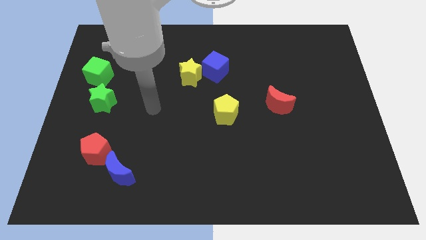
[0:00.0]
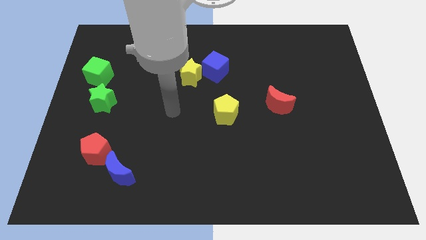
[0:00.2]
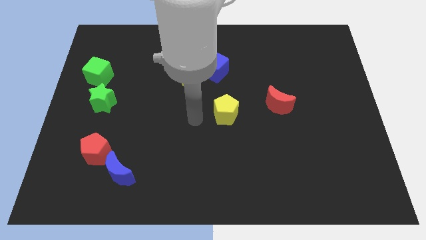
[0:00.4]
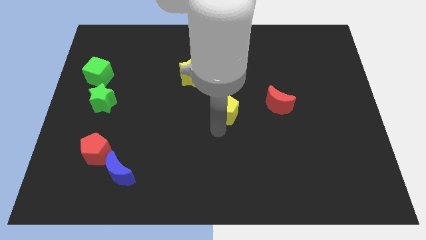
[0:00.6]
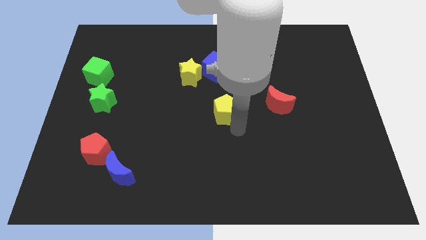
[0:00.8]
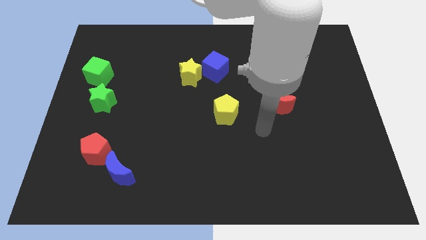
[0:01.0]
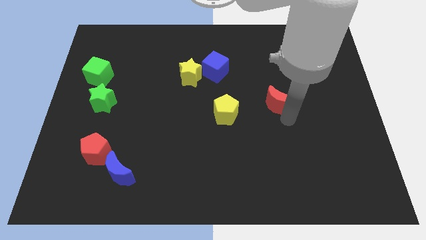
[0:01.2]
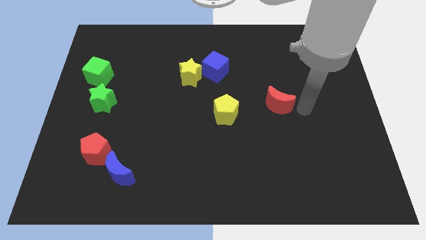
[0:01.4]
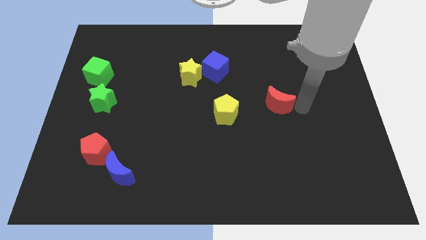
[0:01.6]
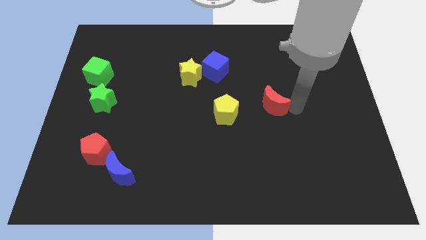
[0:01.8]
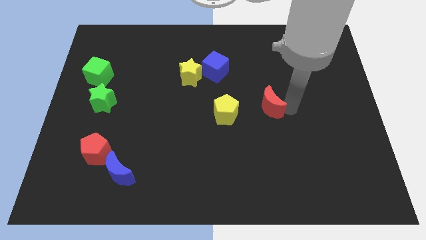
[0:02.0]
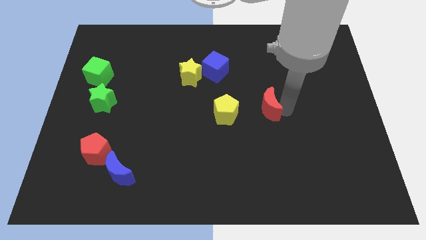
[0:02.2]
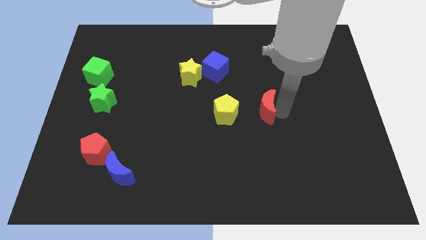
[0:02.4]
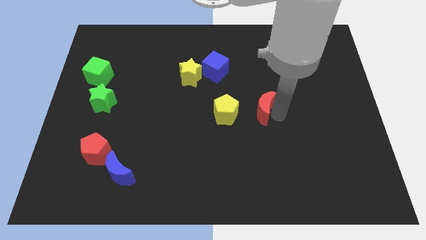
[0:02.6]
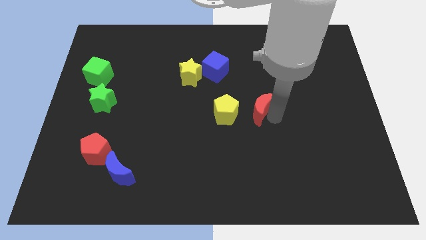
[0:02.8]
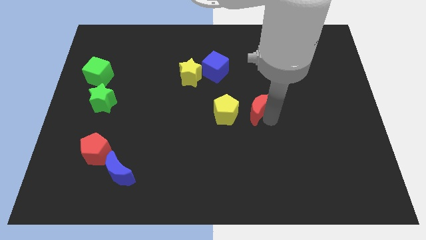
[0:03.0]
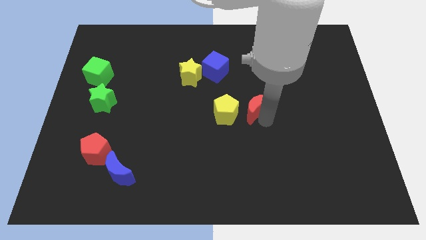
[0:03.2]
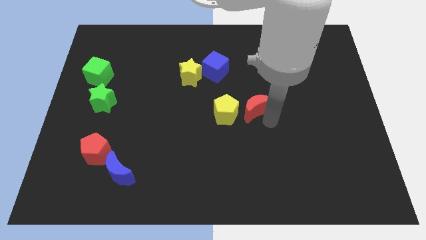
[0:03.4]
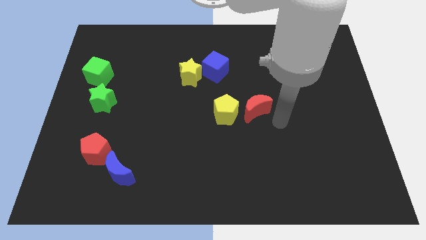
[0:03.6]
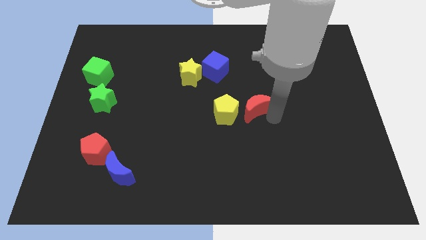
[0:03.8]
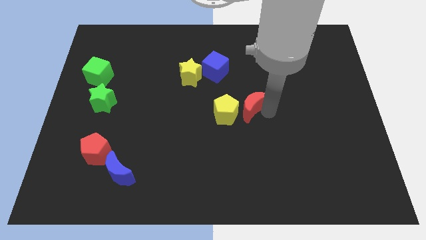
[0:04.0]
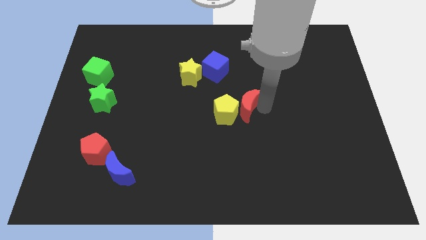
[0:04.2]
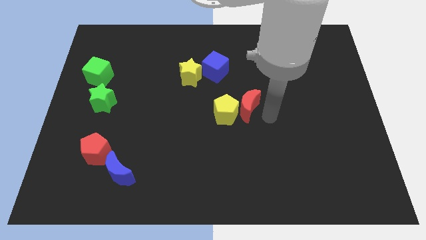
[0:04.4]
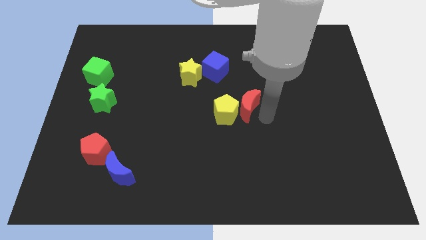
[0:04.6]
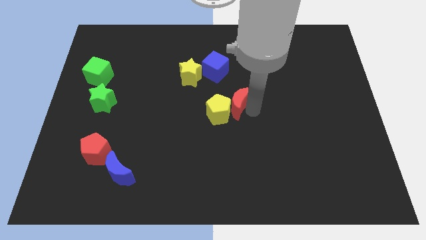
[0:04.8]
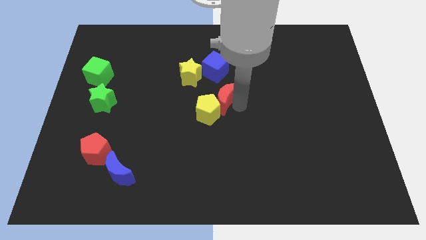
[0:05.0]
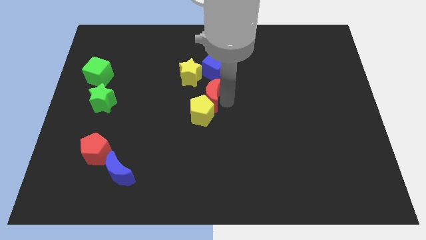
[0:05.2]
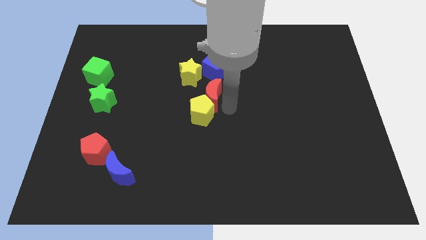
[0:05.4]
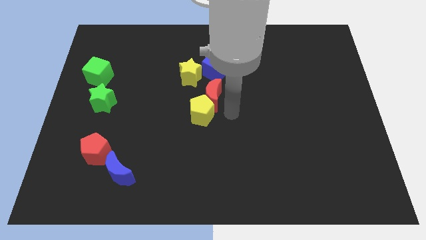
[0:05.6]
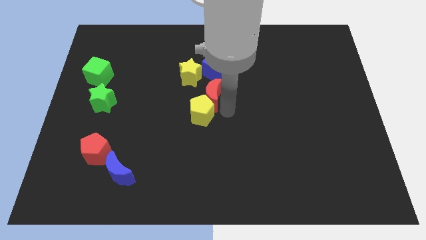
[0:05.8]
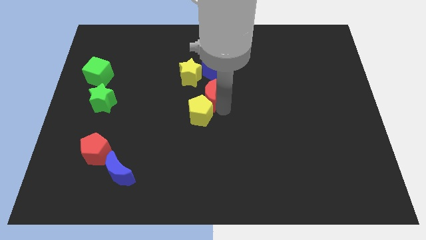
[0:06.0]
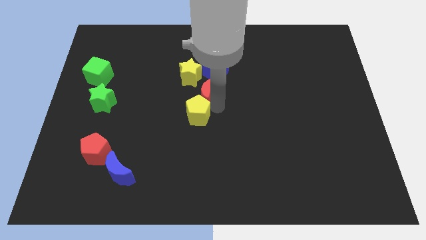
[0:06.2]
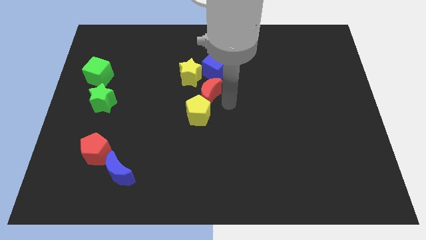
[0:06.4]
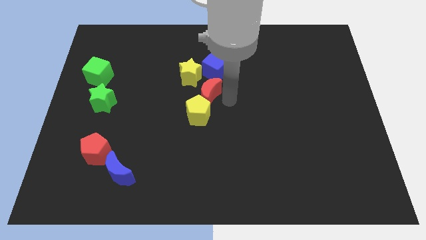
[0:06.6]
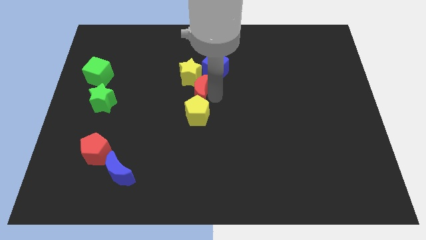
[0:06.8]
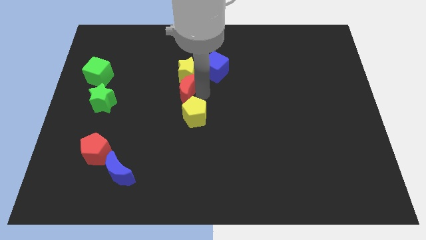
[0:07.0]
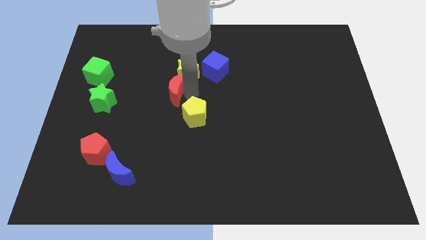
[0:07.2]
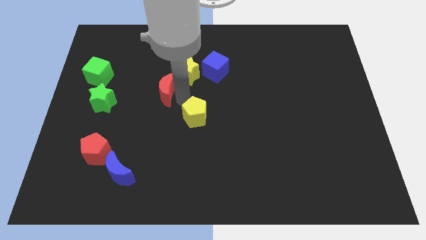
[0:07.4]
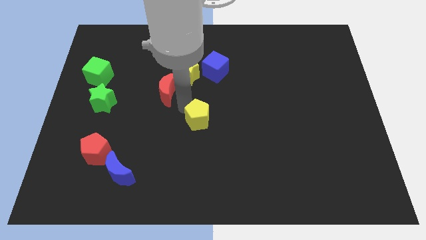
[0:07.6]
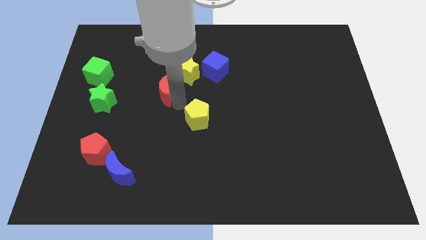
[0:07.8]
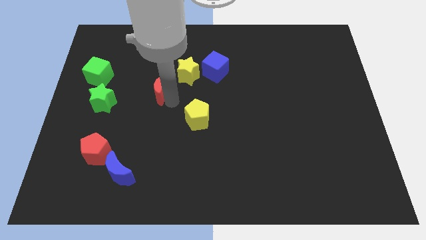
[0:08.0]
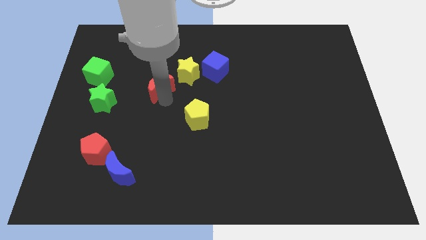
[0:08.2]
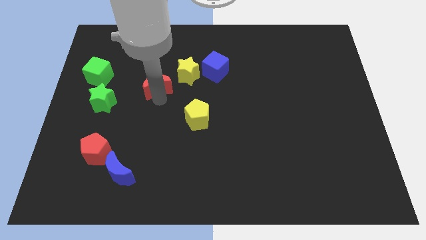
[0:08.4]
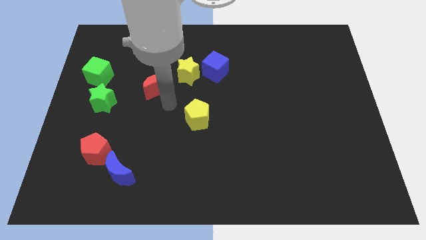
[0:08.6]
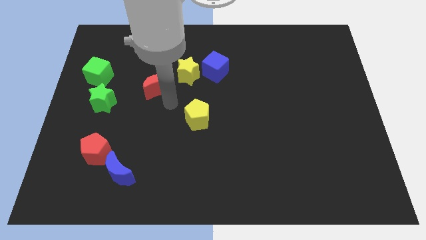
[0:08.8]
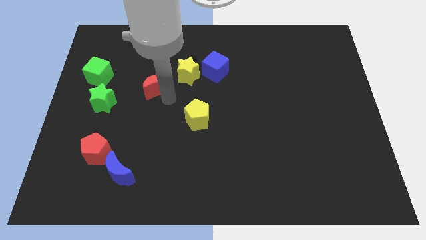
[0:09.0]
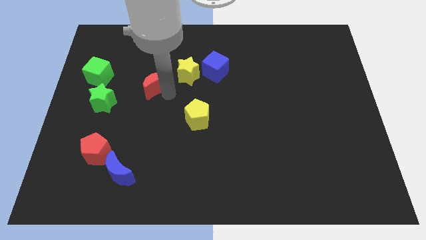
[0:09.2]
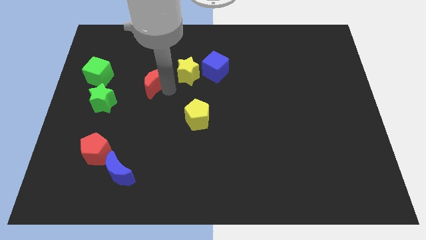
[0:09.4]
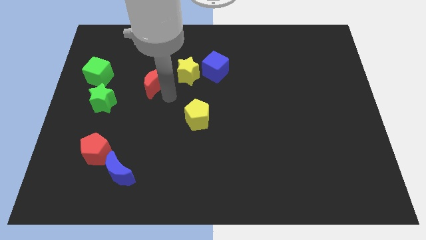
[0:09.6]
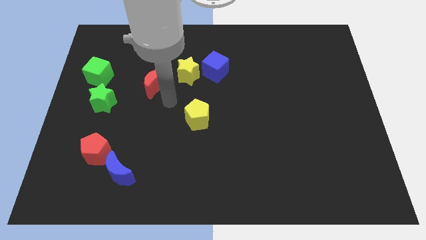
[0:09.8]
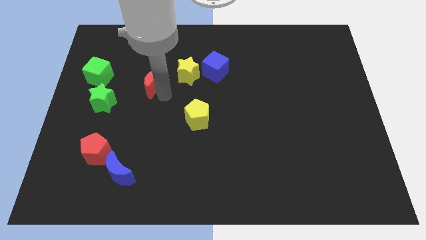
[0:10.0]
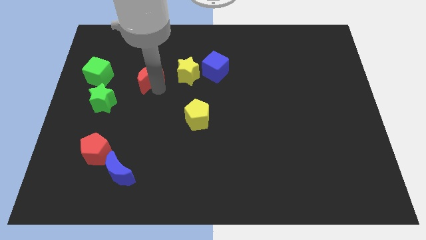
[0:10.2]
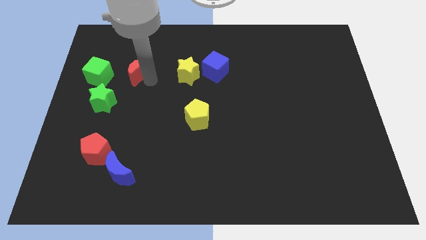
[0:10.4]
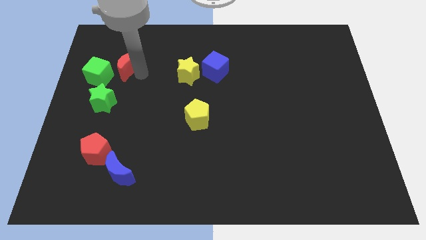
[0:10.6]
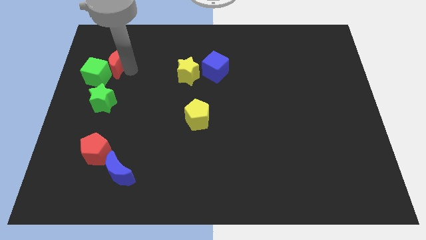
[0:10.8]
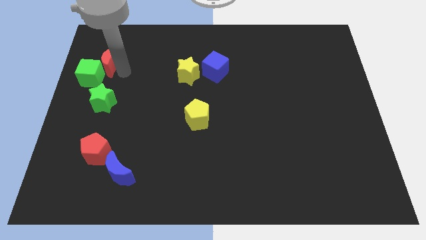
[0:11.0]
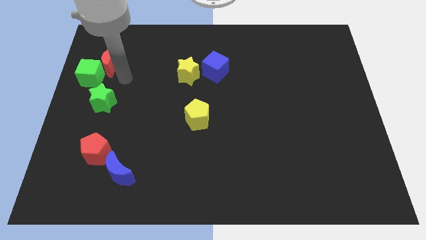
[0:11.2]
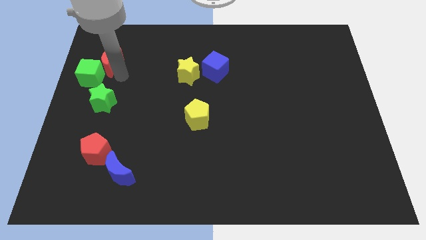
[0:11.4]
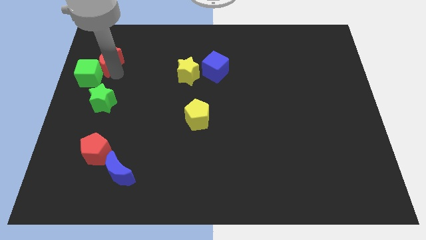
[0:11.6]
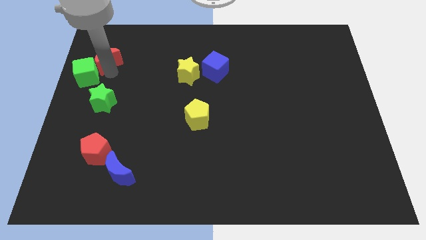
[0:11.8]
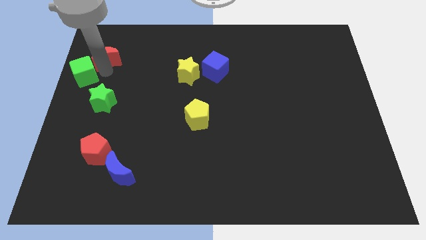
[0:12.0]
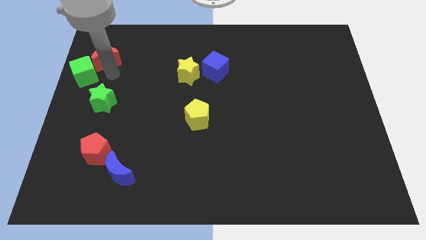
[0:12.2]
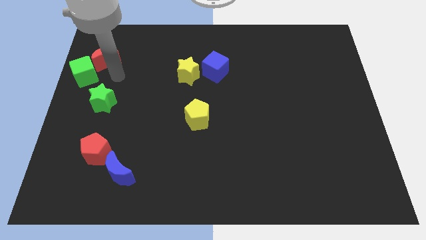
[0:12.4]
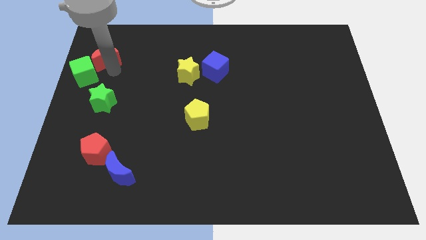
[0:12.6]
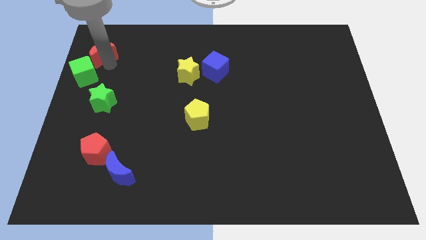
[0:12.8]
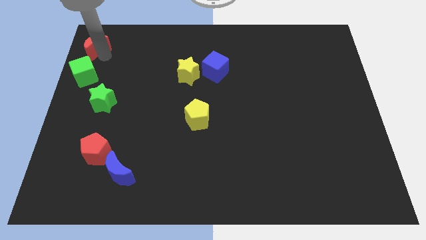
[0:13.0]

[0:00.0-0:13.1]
move the red moon to the top left of the board
